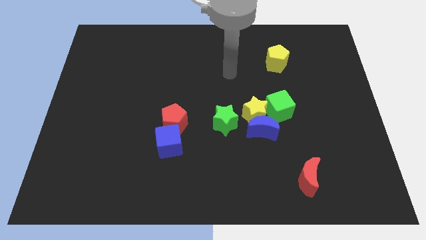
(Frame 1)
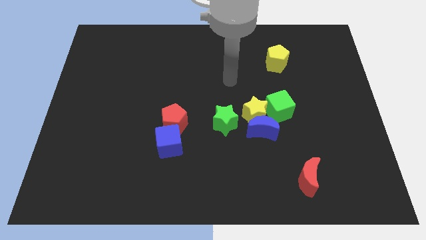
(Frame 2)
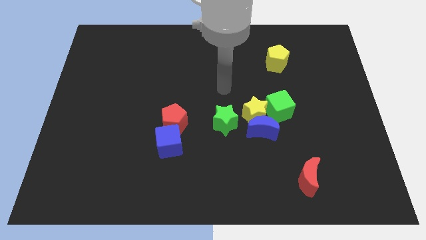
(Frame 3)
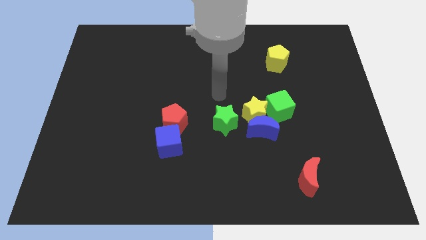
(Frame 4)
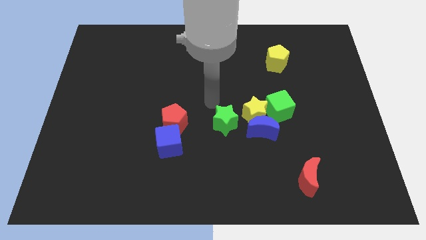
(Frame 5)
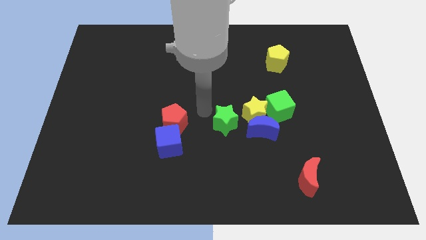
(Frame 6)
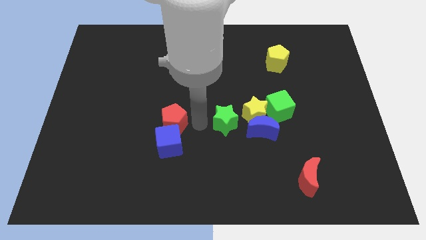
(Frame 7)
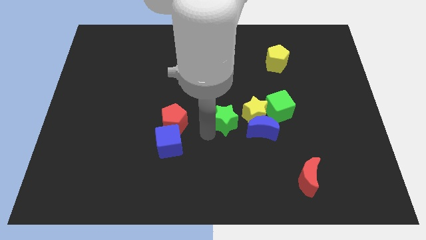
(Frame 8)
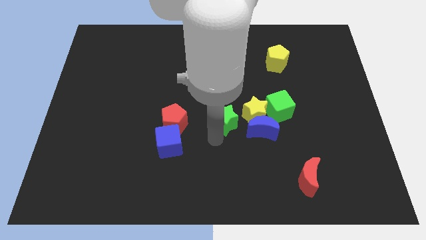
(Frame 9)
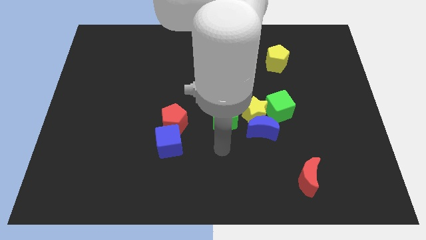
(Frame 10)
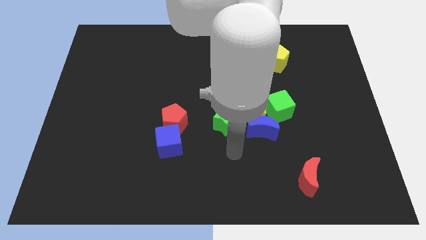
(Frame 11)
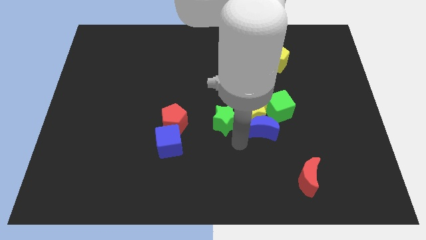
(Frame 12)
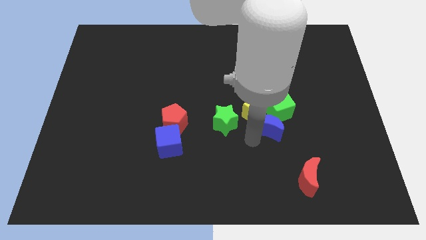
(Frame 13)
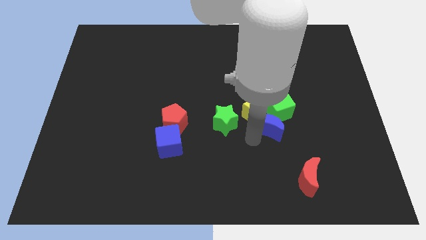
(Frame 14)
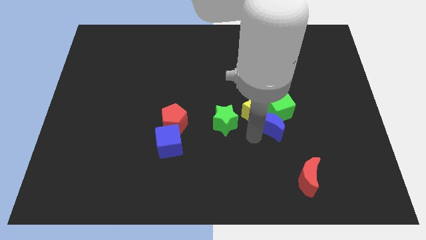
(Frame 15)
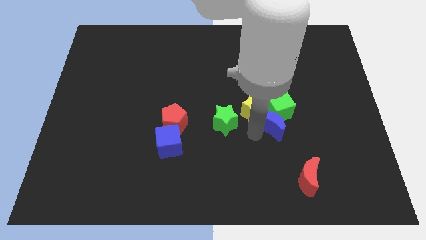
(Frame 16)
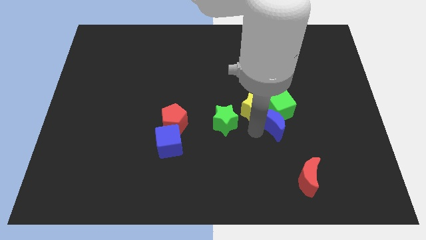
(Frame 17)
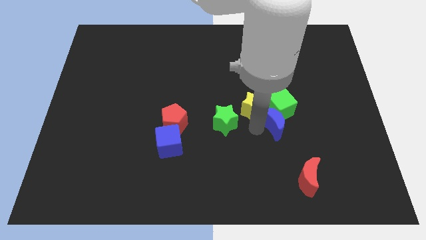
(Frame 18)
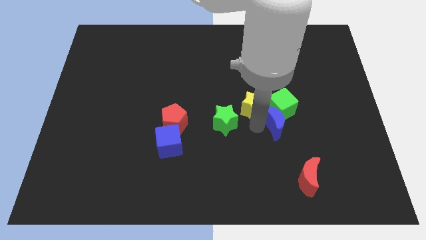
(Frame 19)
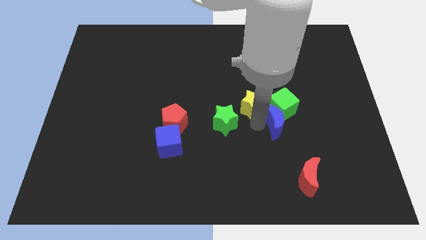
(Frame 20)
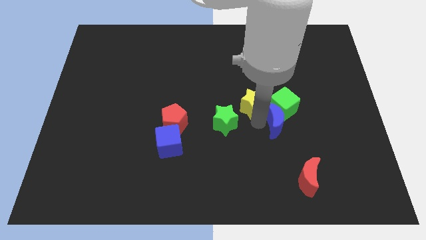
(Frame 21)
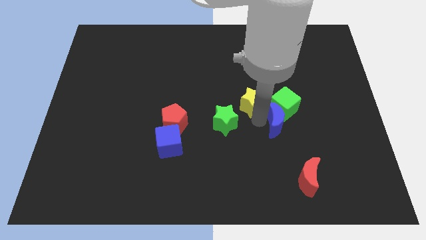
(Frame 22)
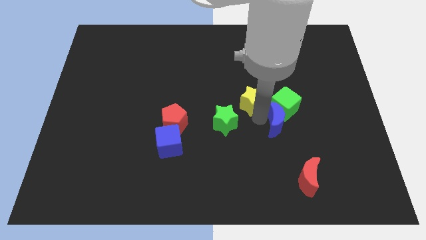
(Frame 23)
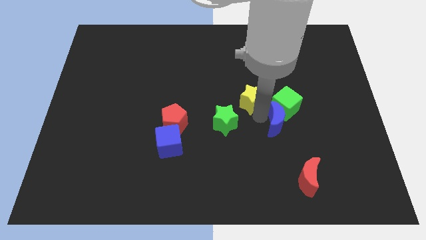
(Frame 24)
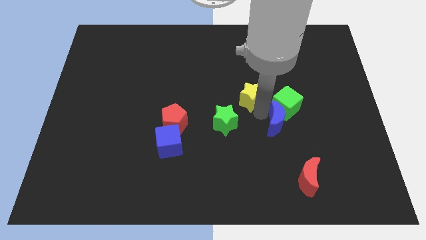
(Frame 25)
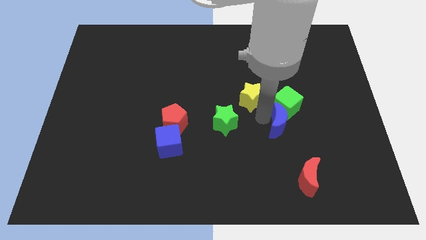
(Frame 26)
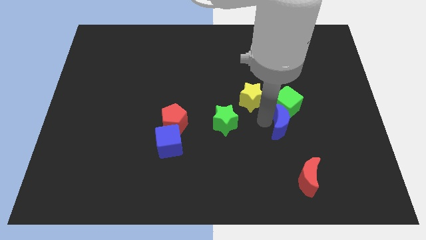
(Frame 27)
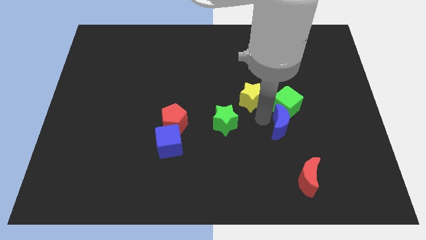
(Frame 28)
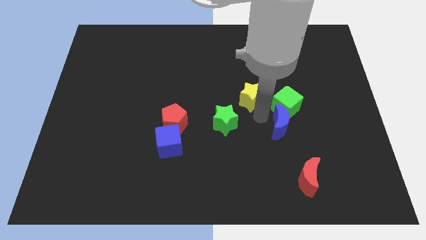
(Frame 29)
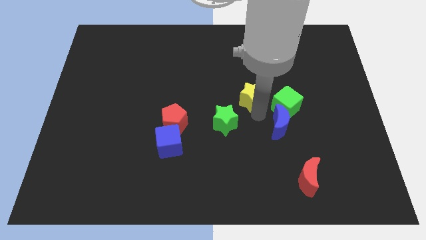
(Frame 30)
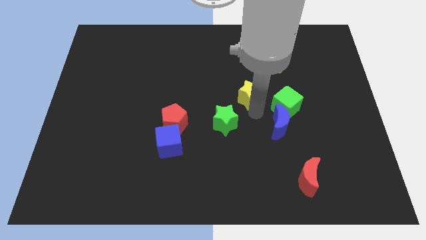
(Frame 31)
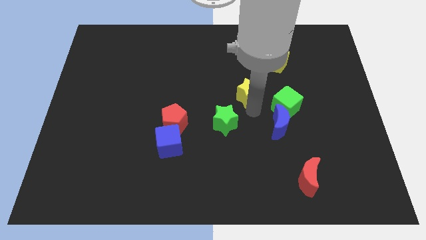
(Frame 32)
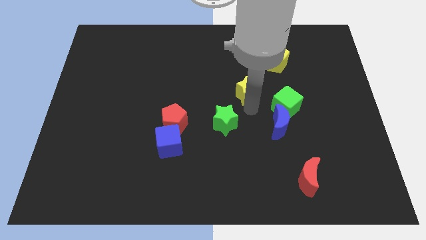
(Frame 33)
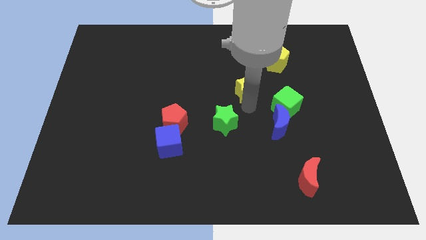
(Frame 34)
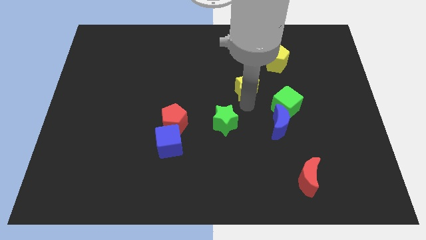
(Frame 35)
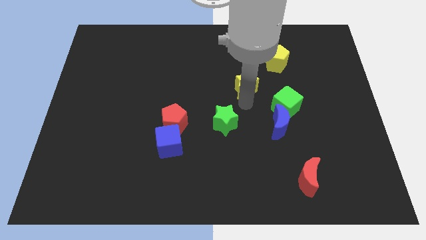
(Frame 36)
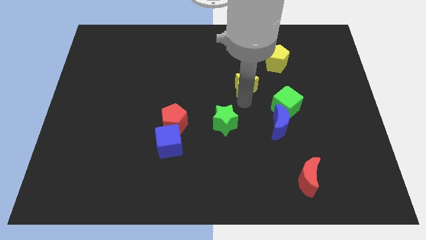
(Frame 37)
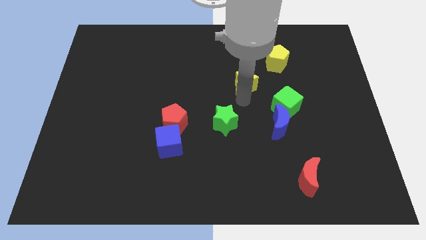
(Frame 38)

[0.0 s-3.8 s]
separate the yellow star from the blue moon, green cube, and green star

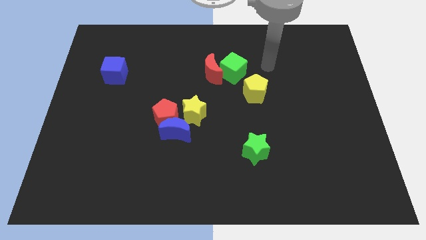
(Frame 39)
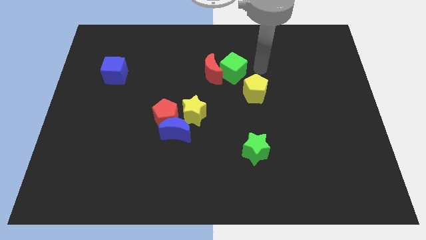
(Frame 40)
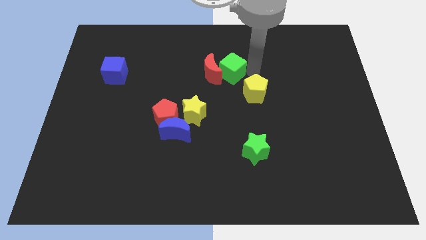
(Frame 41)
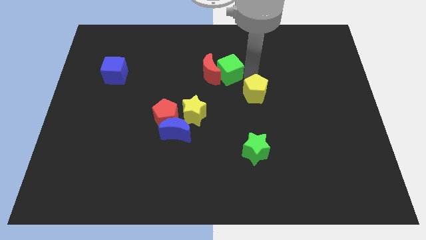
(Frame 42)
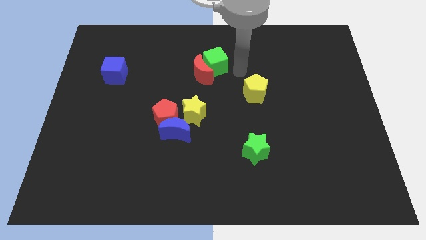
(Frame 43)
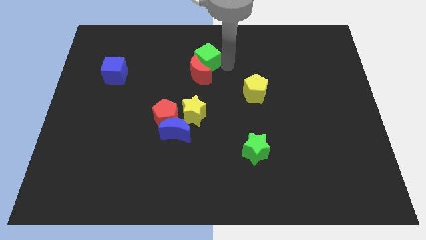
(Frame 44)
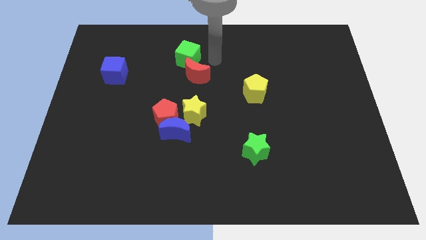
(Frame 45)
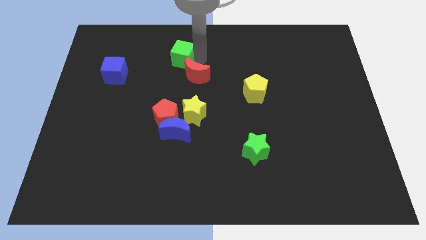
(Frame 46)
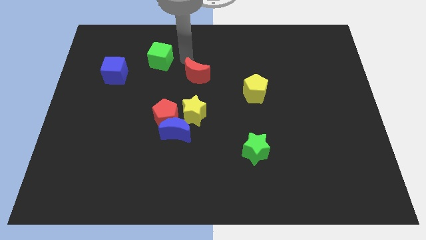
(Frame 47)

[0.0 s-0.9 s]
move the red moon away from the green cube

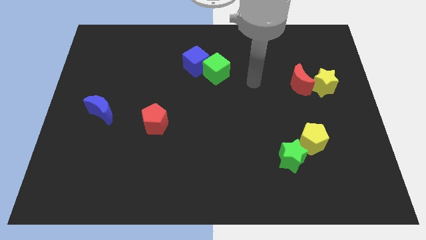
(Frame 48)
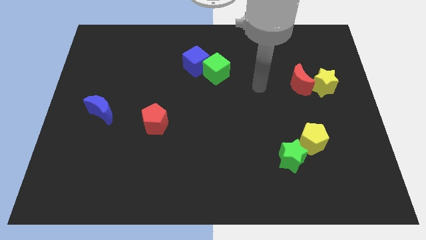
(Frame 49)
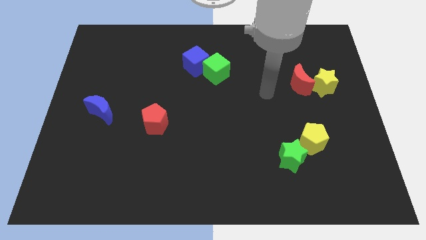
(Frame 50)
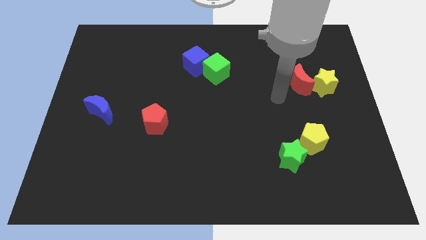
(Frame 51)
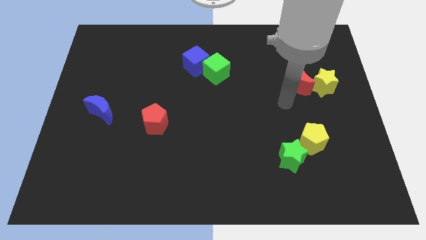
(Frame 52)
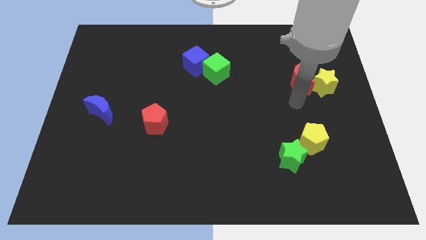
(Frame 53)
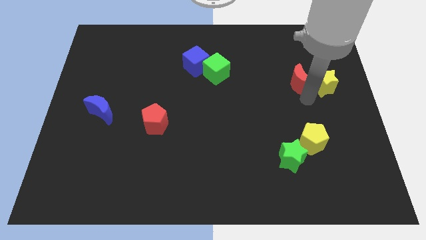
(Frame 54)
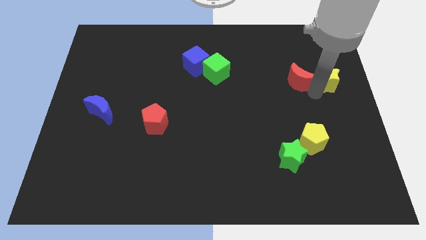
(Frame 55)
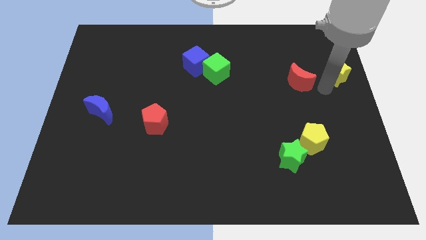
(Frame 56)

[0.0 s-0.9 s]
move the red moon away from the yellow star

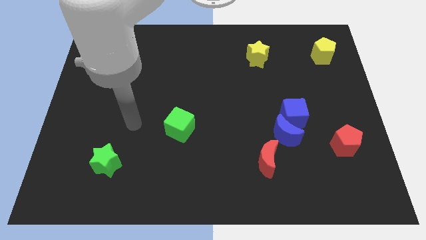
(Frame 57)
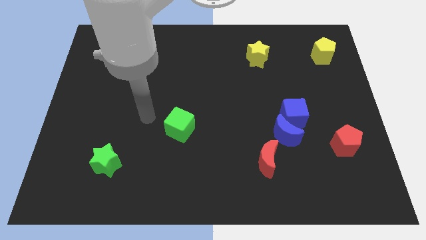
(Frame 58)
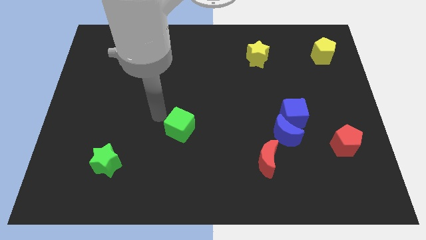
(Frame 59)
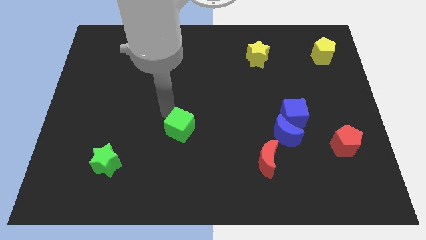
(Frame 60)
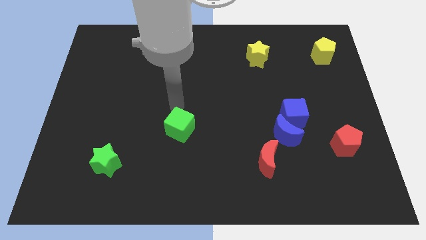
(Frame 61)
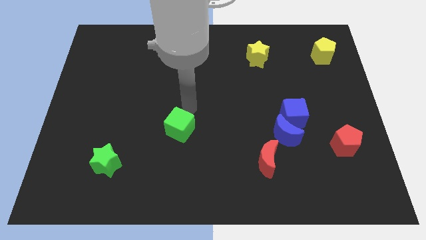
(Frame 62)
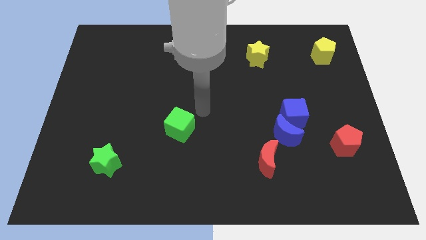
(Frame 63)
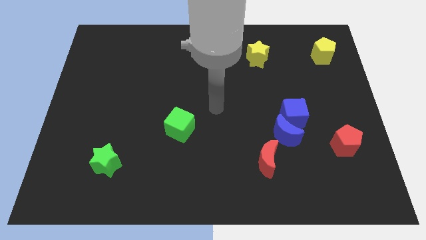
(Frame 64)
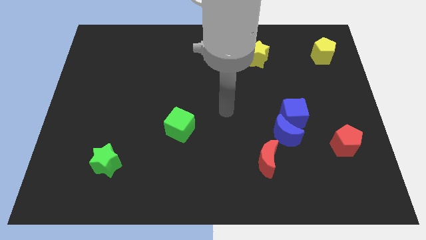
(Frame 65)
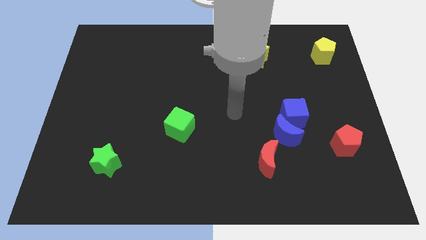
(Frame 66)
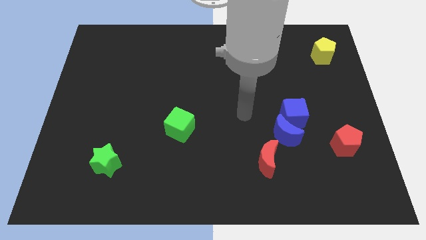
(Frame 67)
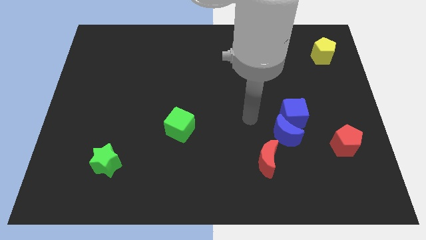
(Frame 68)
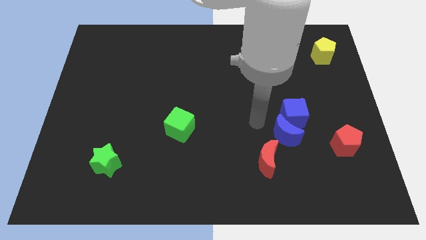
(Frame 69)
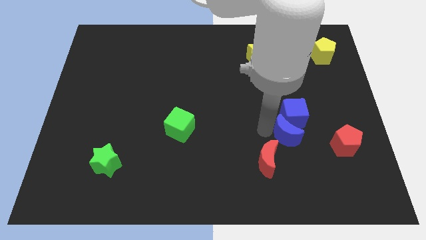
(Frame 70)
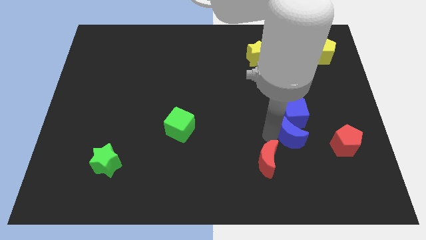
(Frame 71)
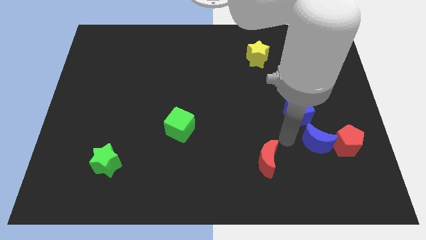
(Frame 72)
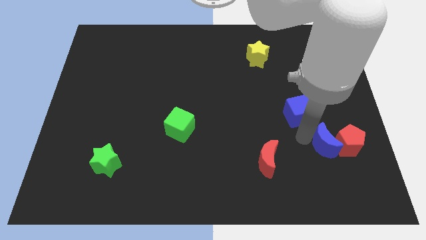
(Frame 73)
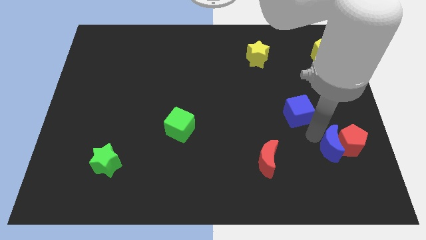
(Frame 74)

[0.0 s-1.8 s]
move the blue cube away from the blue moon

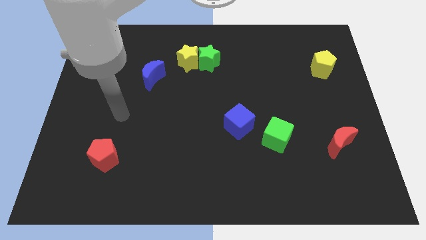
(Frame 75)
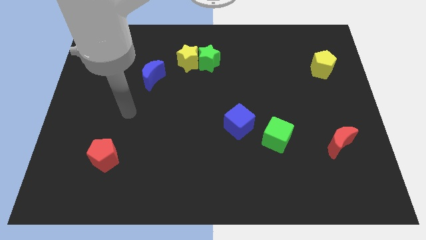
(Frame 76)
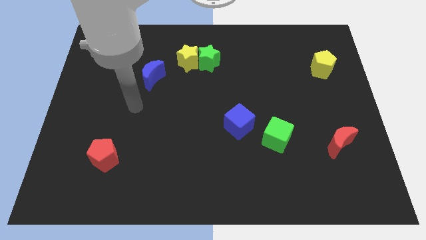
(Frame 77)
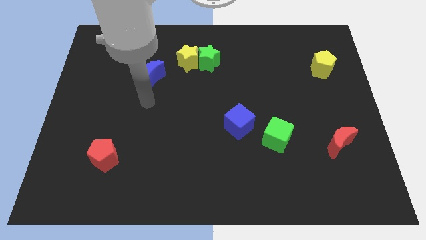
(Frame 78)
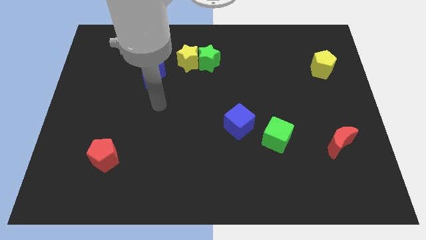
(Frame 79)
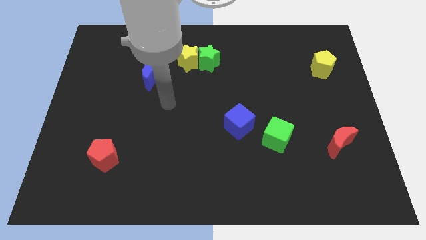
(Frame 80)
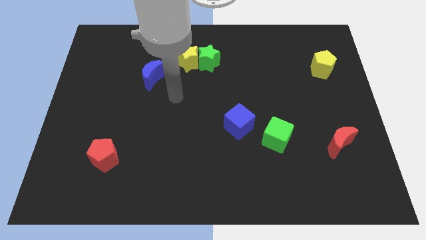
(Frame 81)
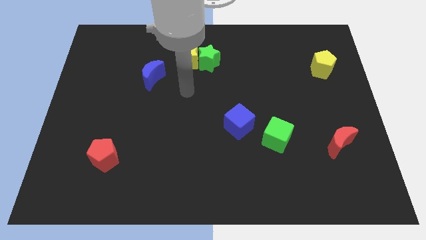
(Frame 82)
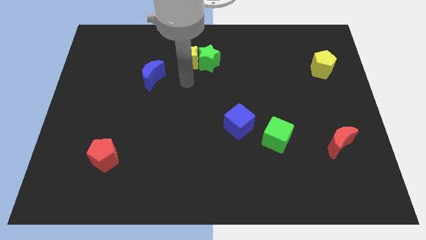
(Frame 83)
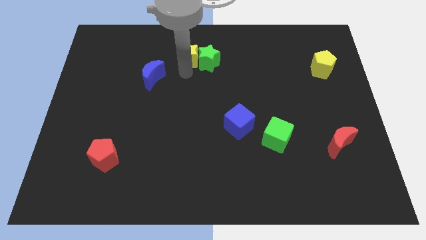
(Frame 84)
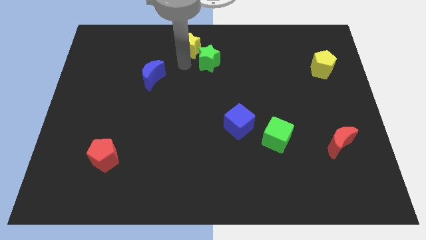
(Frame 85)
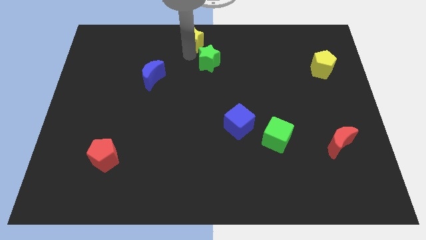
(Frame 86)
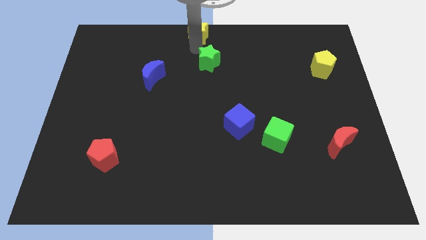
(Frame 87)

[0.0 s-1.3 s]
separate the green star from the yellow star

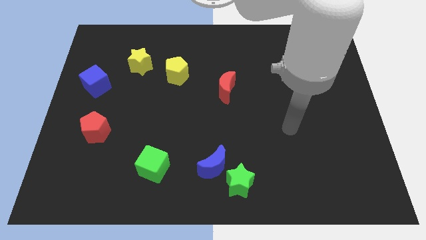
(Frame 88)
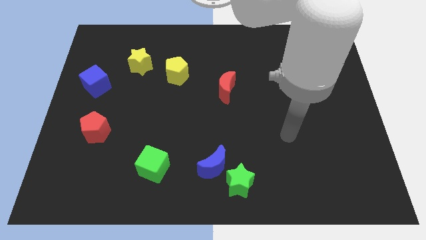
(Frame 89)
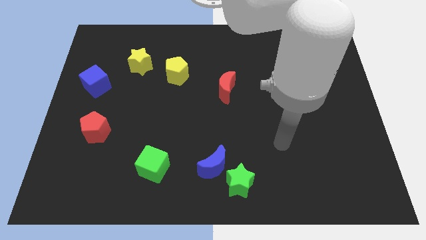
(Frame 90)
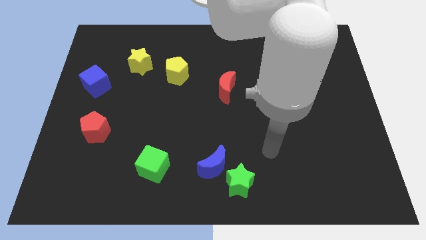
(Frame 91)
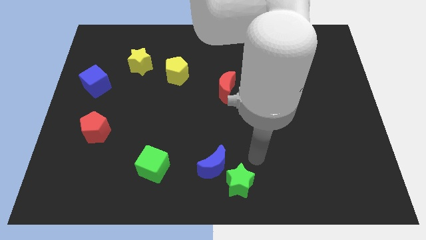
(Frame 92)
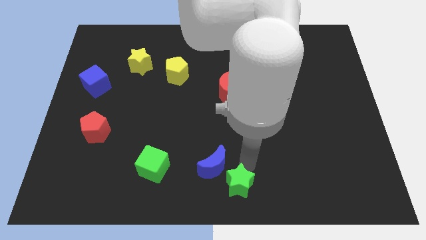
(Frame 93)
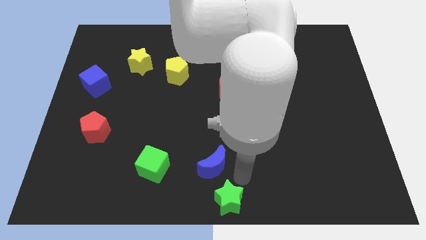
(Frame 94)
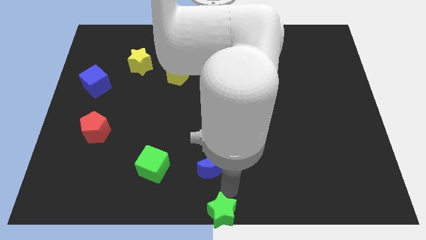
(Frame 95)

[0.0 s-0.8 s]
pull the blue moon apart from the green star
